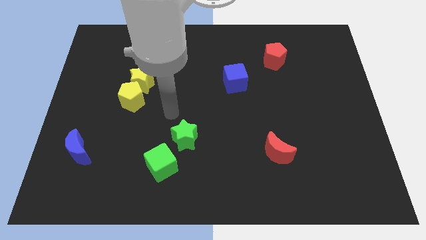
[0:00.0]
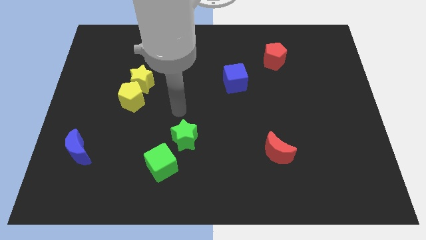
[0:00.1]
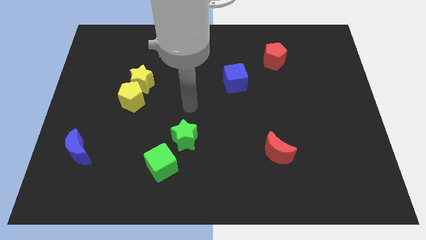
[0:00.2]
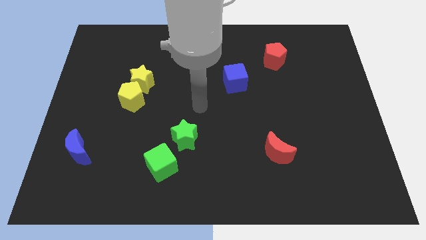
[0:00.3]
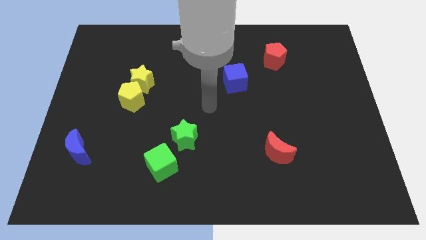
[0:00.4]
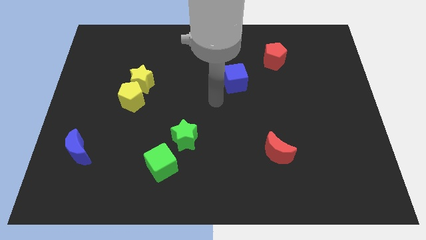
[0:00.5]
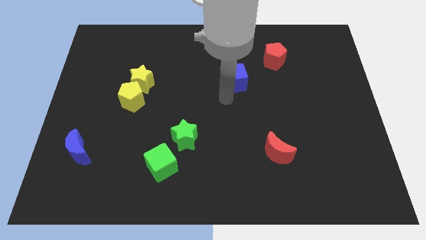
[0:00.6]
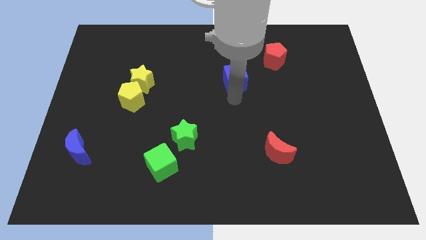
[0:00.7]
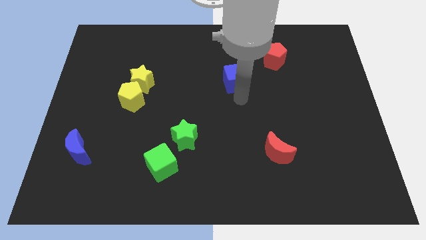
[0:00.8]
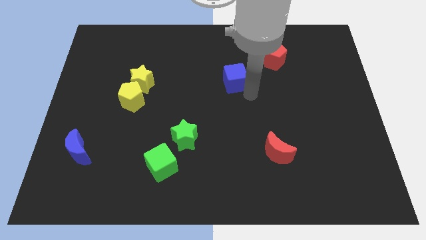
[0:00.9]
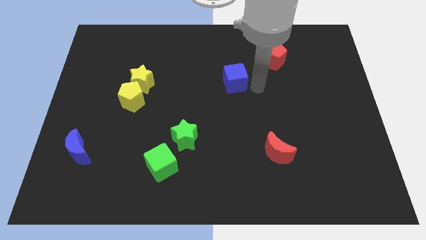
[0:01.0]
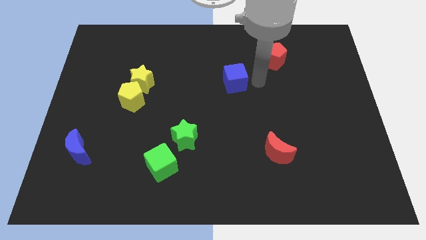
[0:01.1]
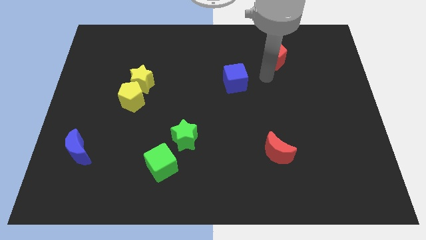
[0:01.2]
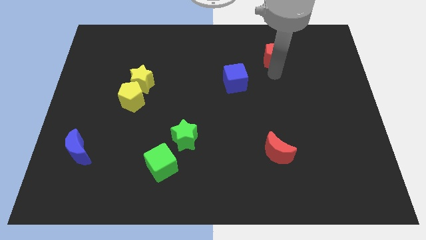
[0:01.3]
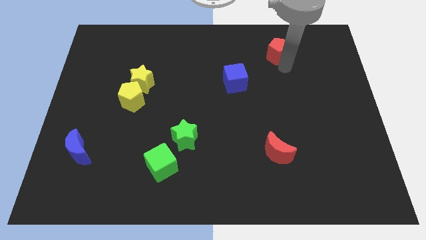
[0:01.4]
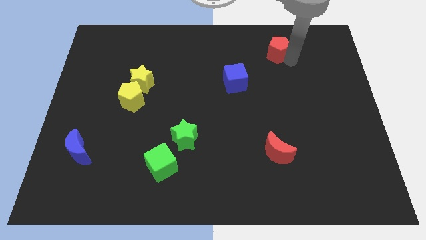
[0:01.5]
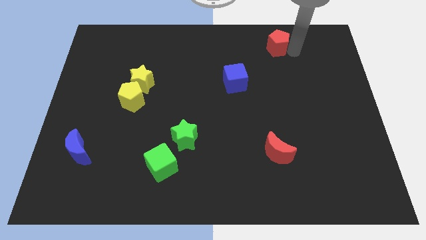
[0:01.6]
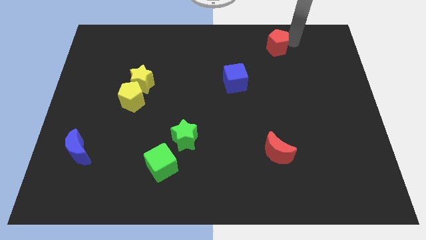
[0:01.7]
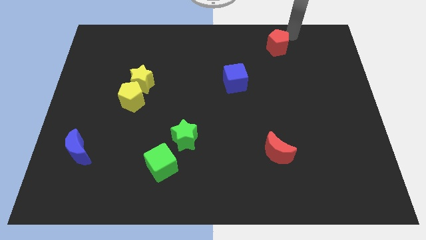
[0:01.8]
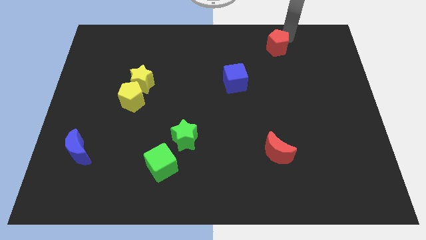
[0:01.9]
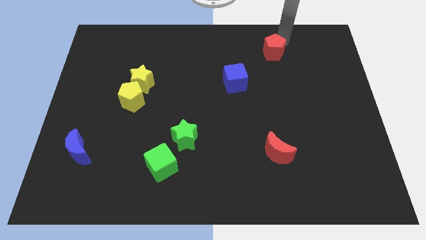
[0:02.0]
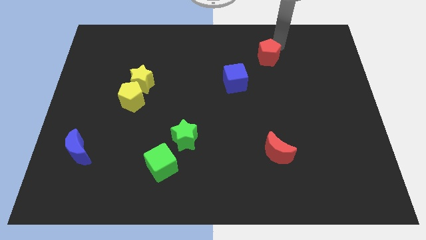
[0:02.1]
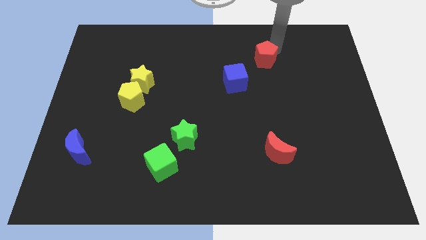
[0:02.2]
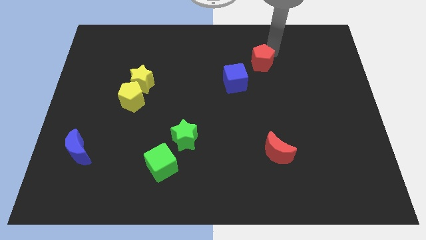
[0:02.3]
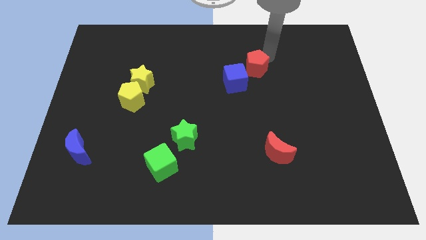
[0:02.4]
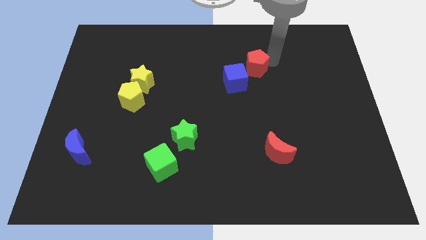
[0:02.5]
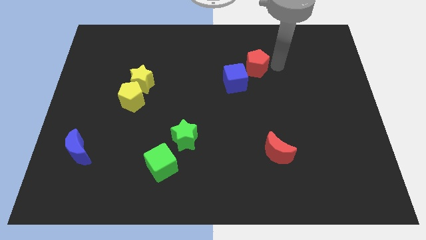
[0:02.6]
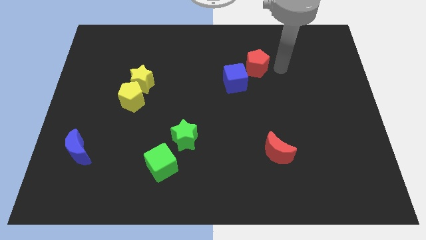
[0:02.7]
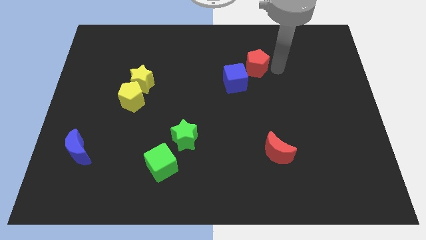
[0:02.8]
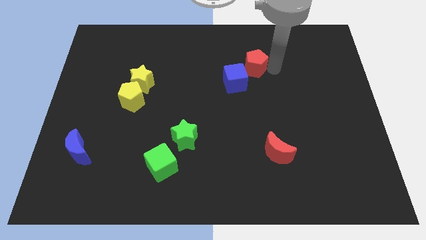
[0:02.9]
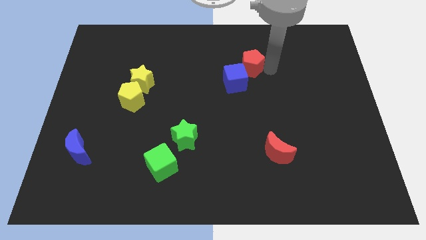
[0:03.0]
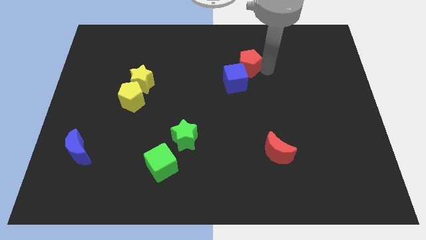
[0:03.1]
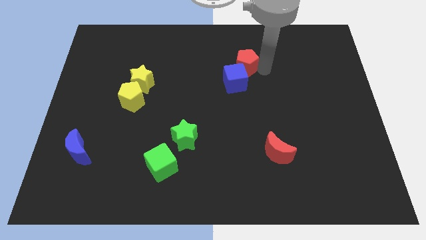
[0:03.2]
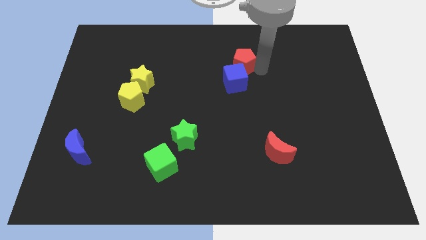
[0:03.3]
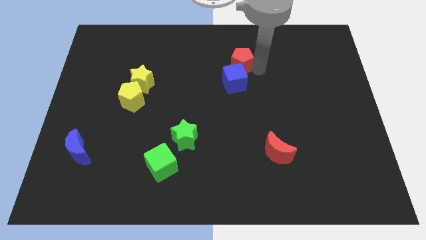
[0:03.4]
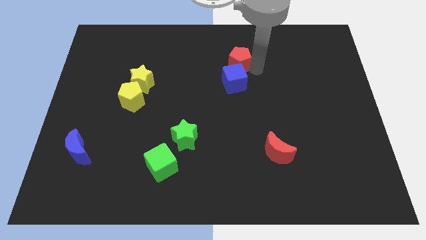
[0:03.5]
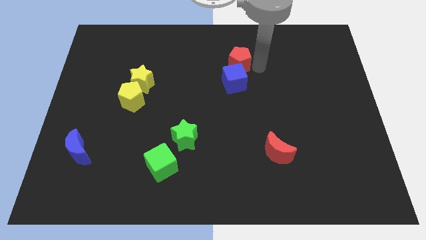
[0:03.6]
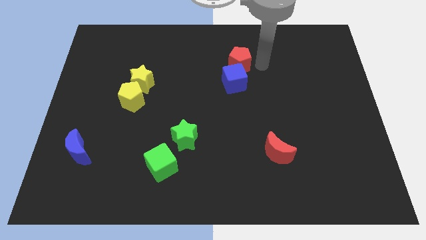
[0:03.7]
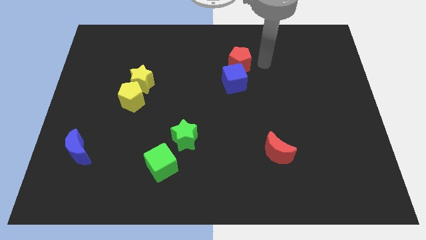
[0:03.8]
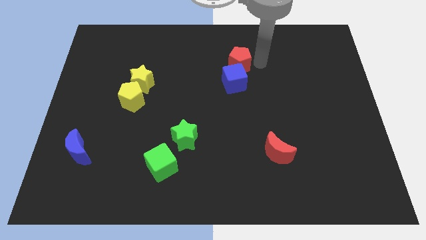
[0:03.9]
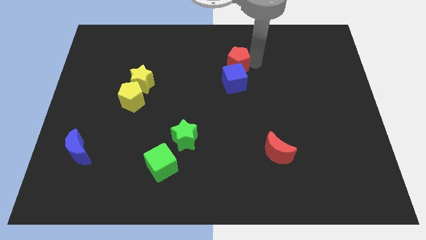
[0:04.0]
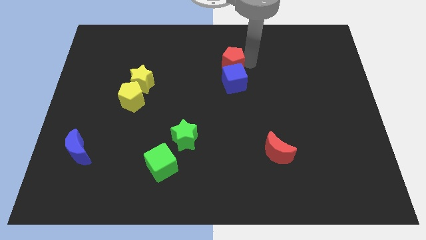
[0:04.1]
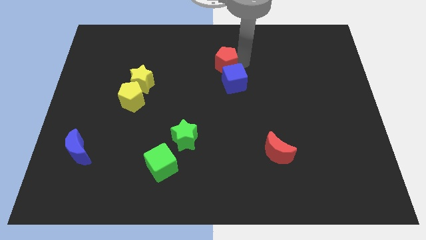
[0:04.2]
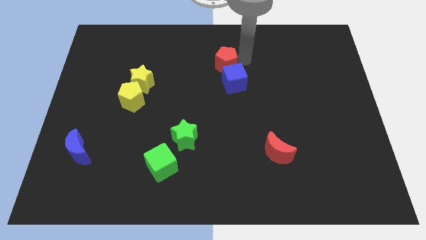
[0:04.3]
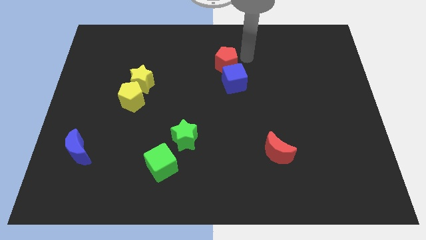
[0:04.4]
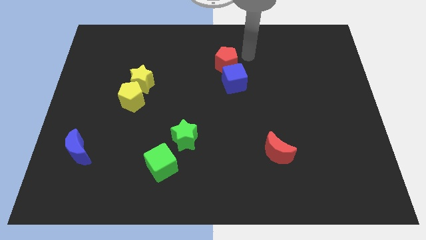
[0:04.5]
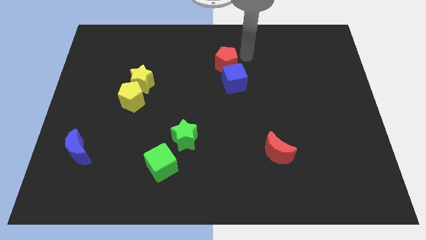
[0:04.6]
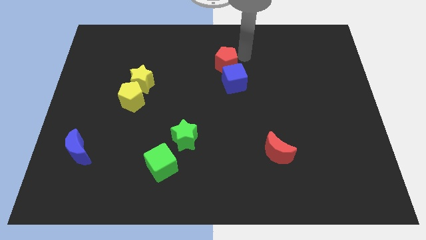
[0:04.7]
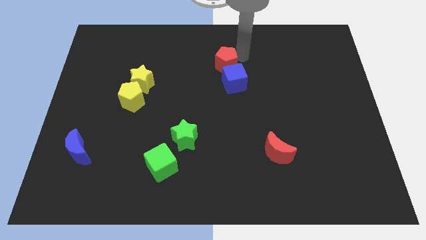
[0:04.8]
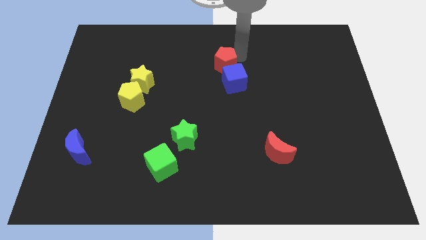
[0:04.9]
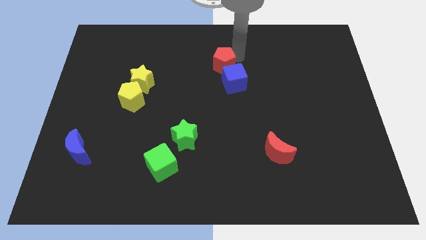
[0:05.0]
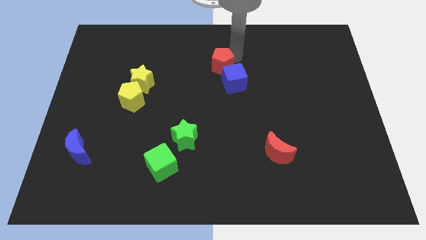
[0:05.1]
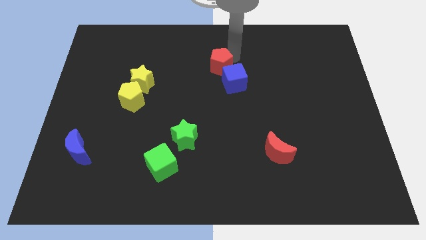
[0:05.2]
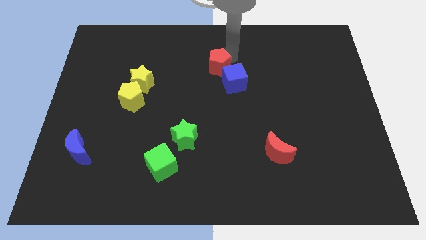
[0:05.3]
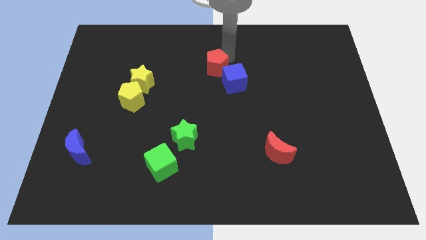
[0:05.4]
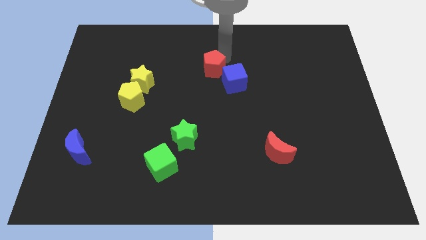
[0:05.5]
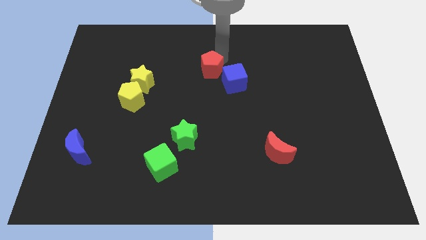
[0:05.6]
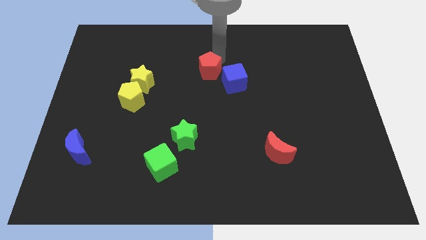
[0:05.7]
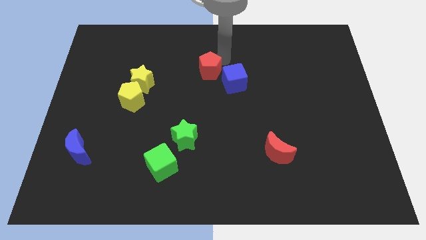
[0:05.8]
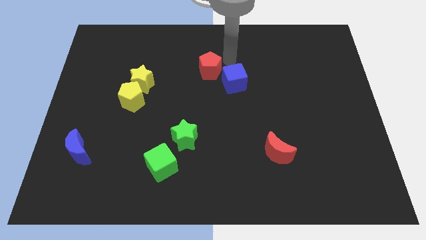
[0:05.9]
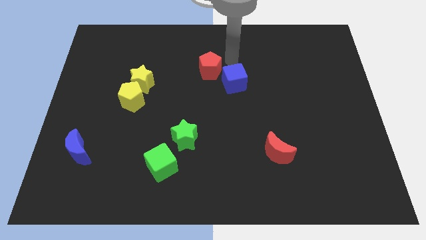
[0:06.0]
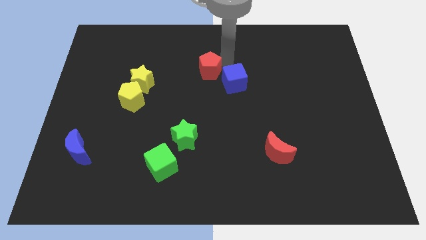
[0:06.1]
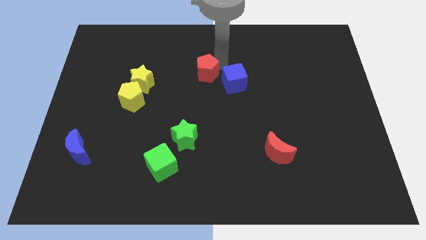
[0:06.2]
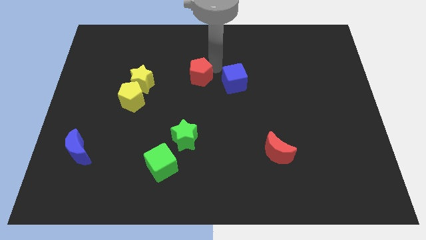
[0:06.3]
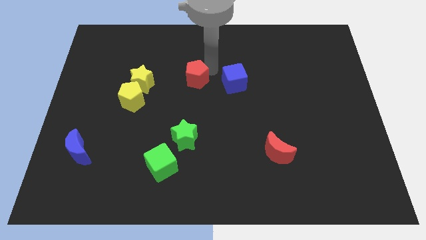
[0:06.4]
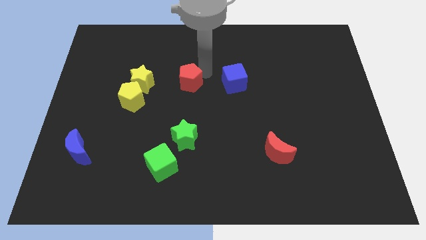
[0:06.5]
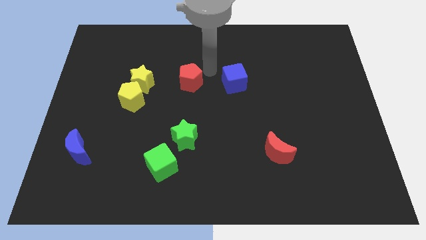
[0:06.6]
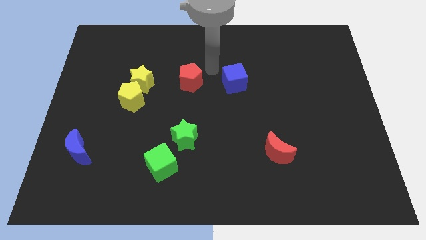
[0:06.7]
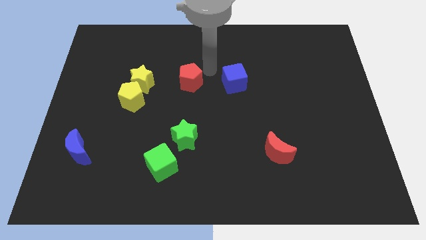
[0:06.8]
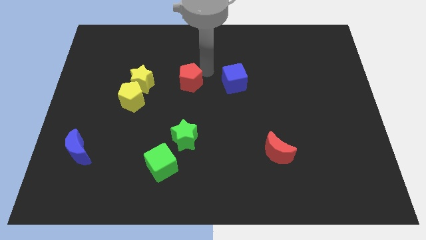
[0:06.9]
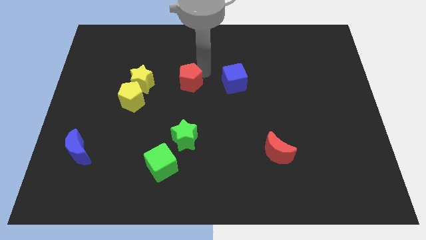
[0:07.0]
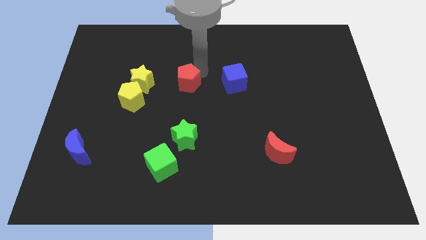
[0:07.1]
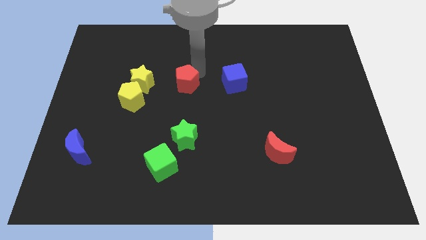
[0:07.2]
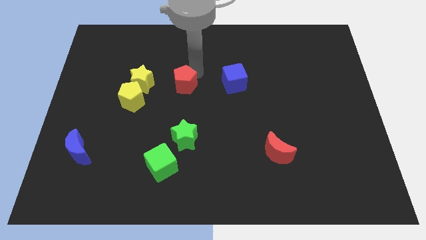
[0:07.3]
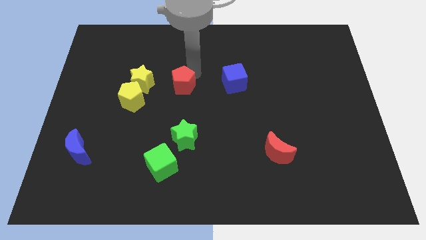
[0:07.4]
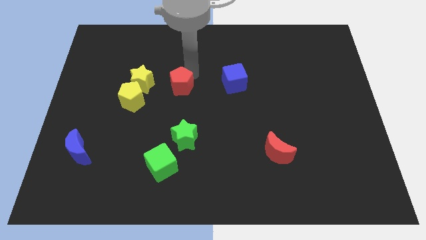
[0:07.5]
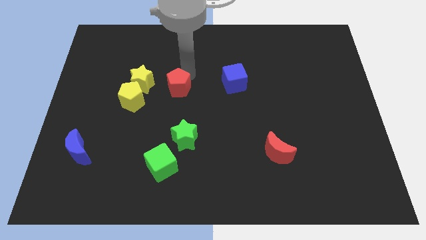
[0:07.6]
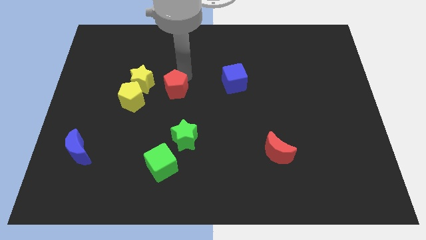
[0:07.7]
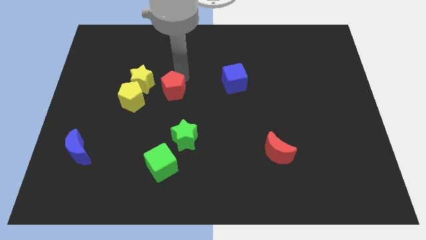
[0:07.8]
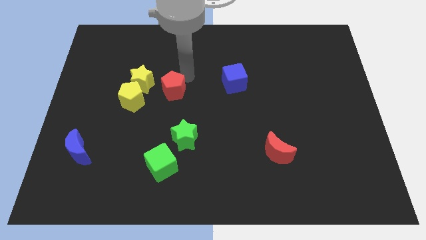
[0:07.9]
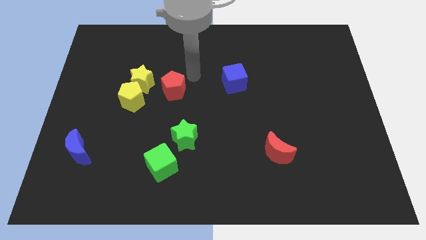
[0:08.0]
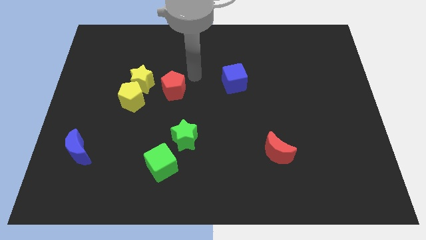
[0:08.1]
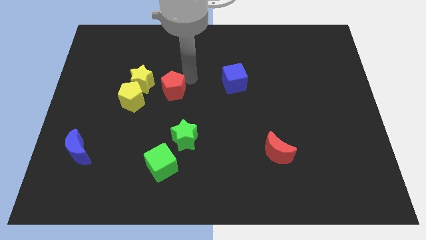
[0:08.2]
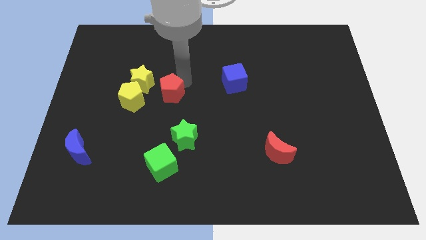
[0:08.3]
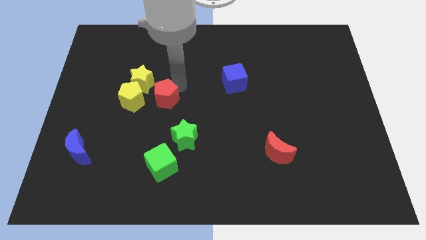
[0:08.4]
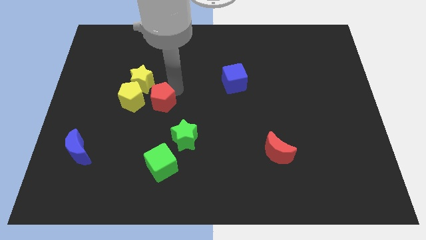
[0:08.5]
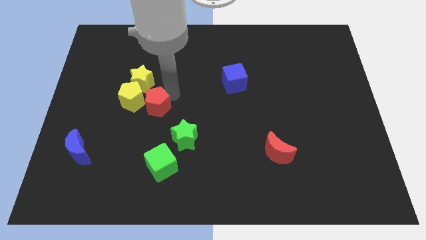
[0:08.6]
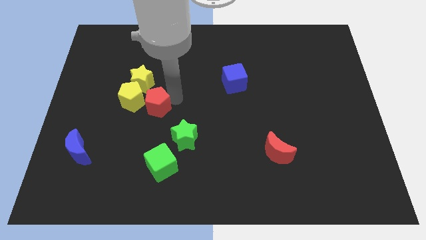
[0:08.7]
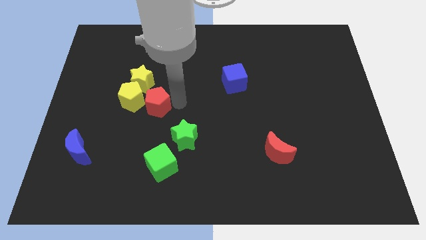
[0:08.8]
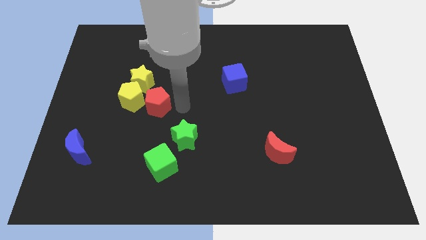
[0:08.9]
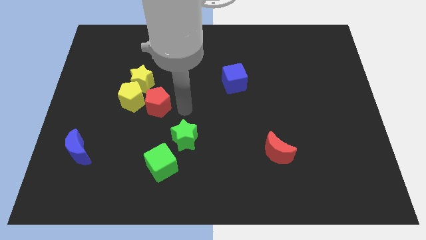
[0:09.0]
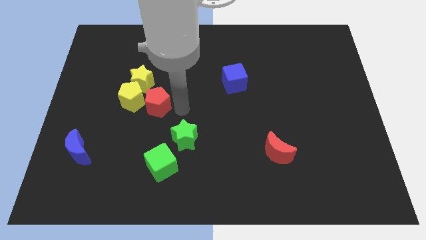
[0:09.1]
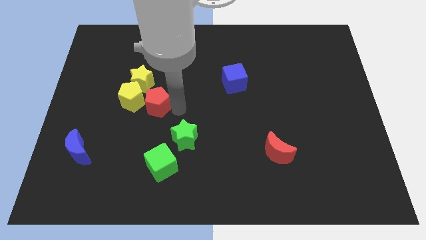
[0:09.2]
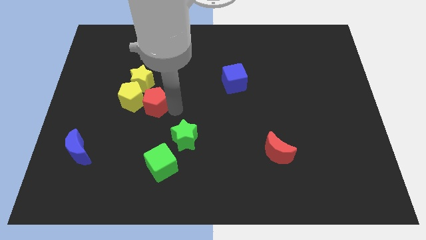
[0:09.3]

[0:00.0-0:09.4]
slide the red pentagon to the yellow pentagon
